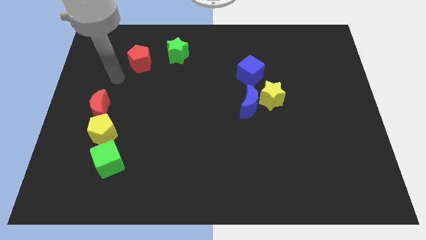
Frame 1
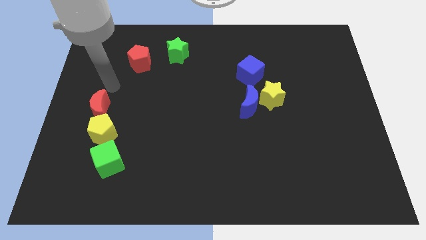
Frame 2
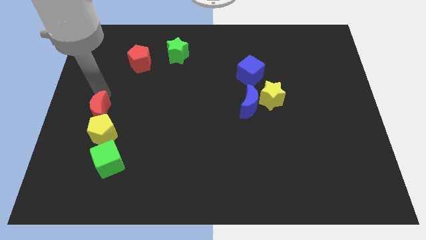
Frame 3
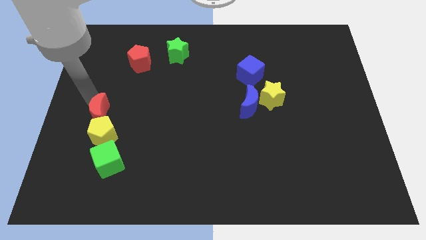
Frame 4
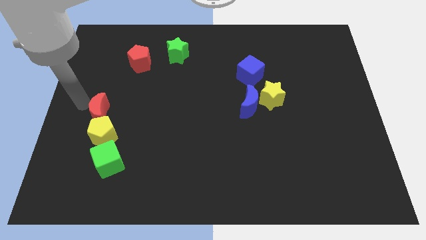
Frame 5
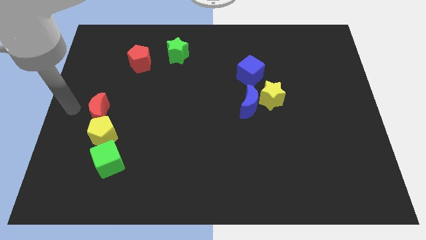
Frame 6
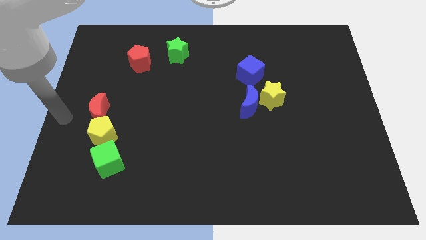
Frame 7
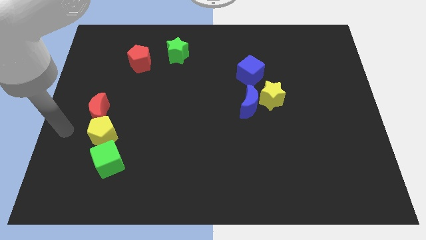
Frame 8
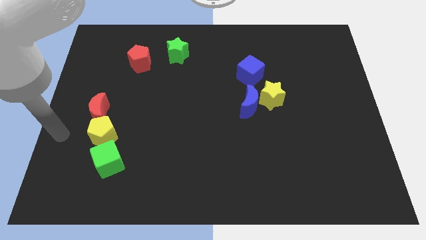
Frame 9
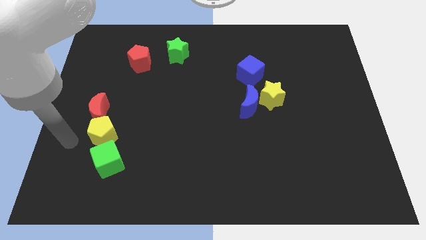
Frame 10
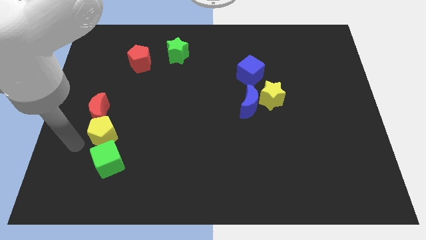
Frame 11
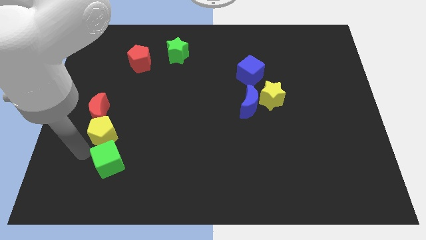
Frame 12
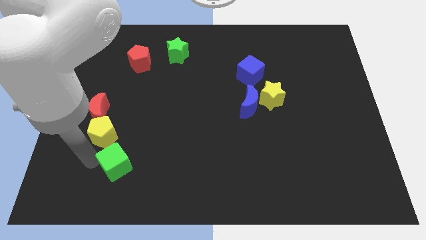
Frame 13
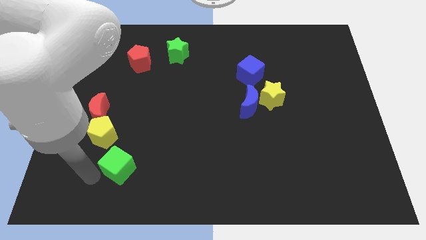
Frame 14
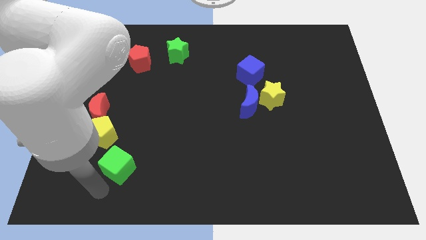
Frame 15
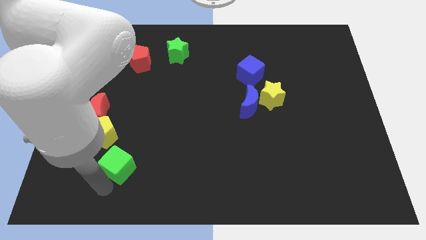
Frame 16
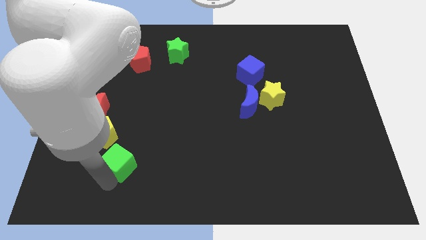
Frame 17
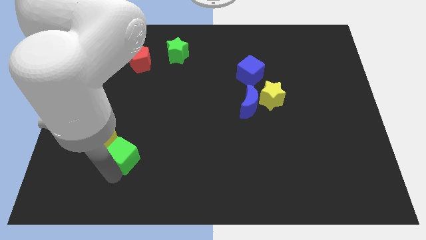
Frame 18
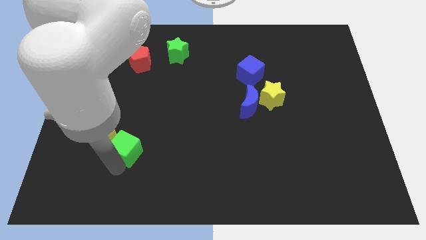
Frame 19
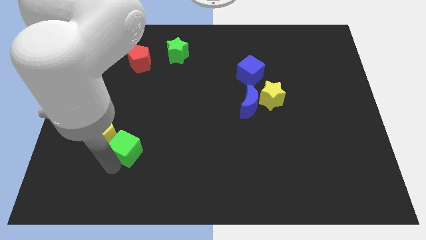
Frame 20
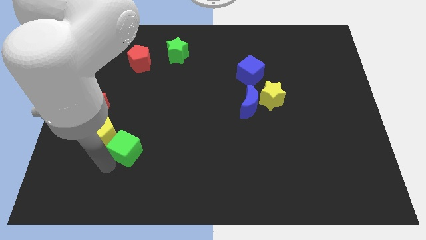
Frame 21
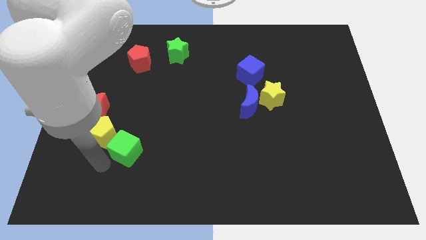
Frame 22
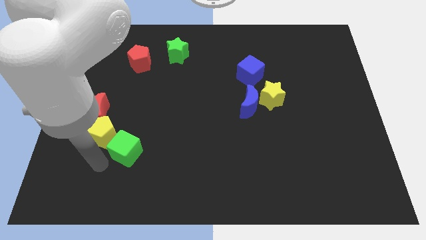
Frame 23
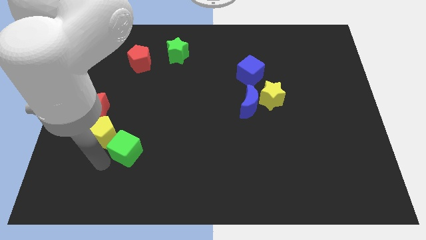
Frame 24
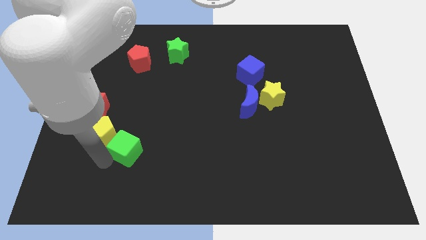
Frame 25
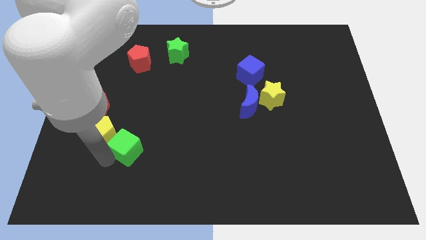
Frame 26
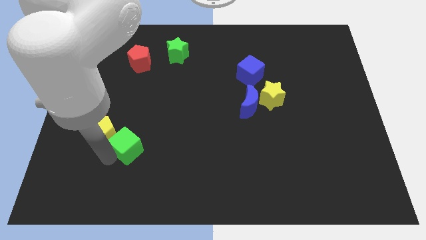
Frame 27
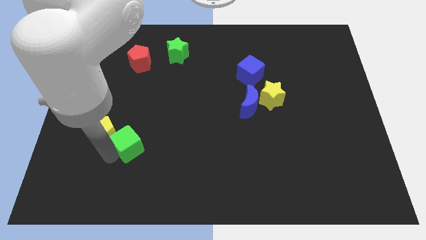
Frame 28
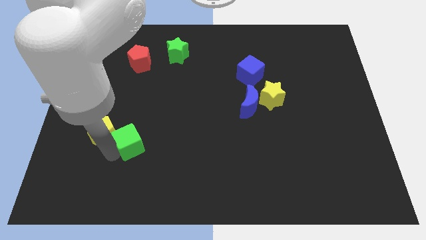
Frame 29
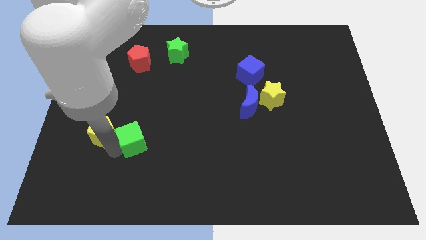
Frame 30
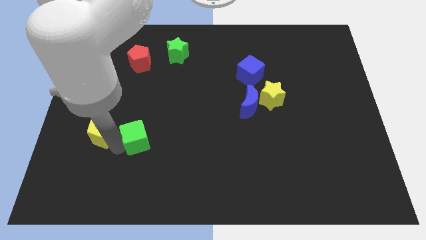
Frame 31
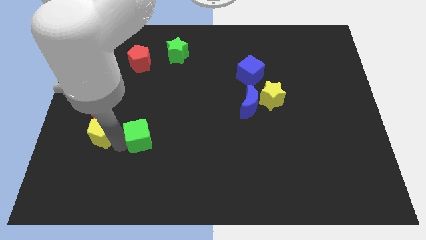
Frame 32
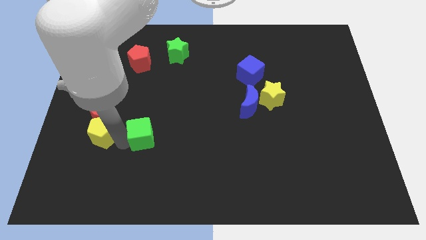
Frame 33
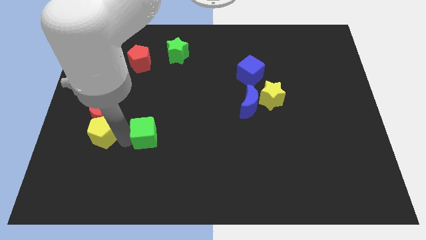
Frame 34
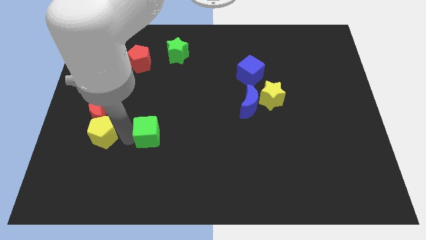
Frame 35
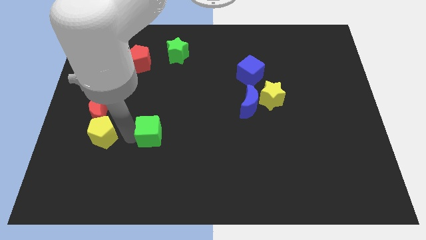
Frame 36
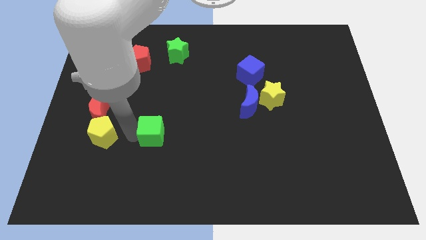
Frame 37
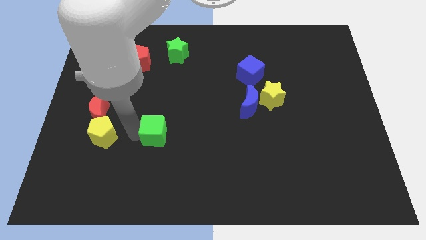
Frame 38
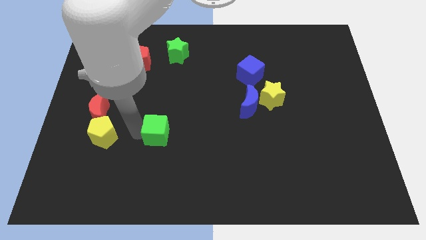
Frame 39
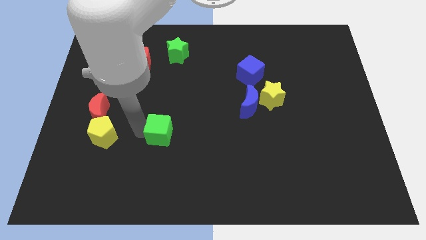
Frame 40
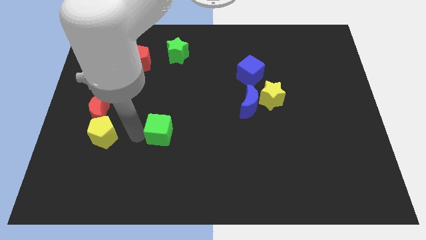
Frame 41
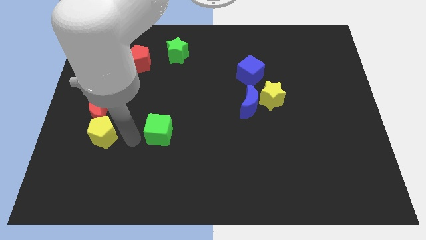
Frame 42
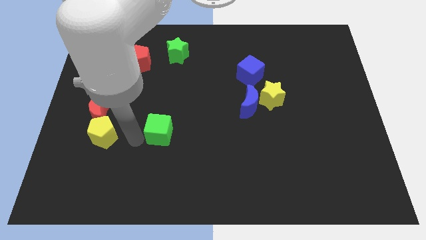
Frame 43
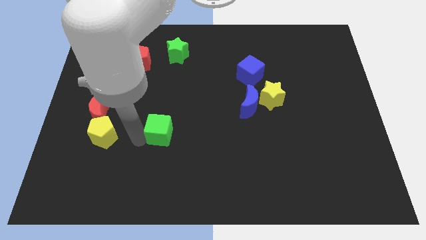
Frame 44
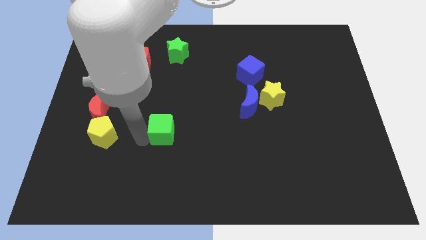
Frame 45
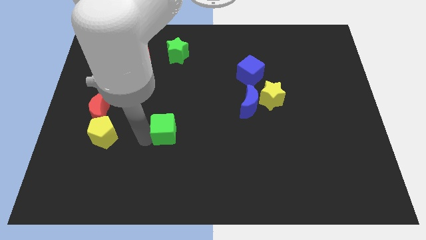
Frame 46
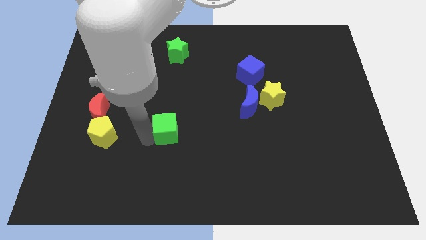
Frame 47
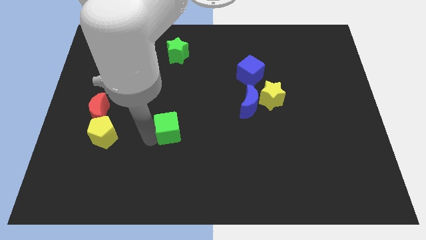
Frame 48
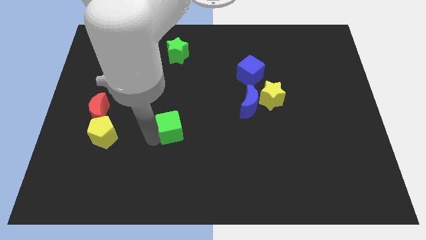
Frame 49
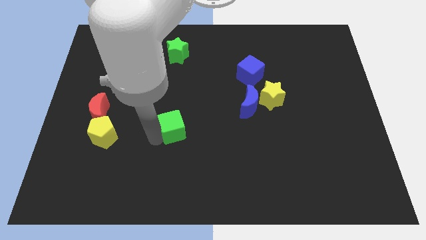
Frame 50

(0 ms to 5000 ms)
push the green cube to the center

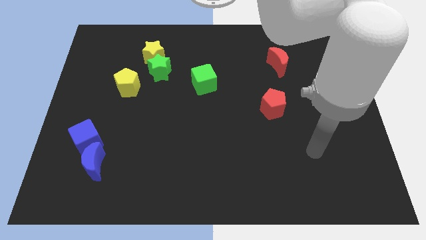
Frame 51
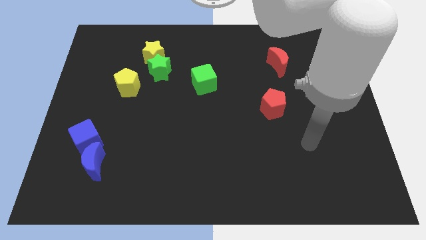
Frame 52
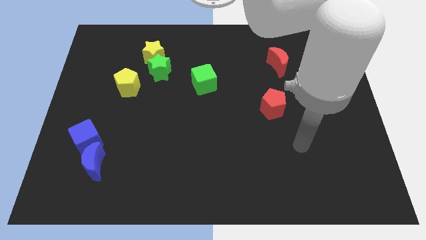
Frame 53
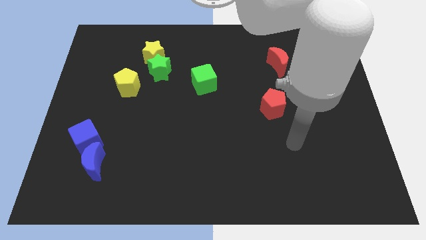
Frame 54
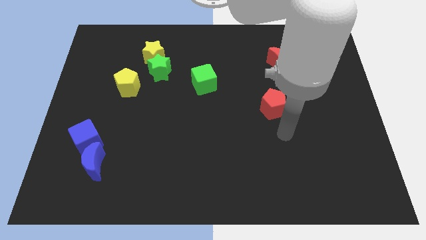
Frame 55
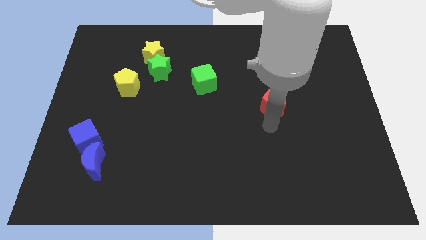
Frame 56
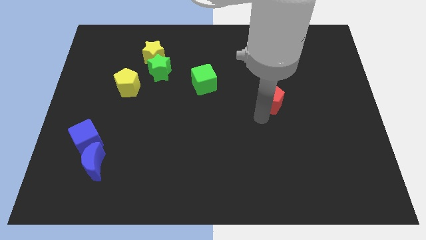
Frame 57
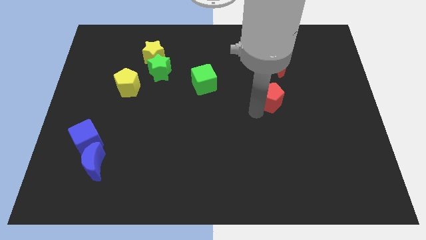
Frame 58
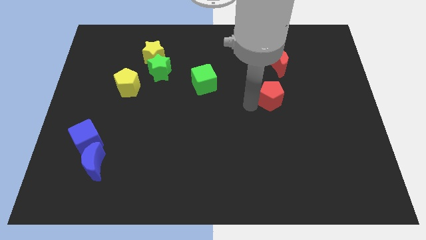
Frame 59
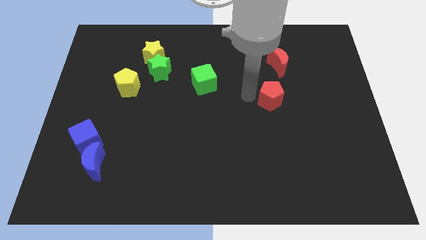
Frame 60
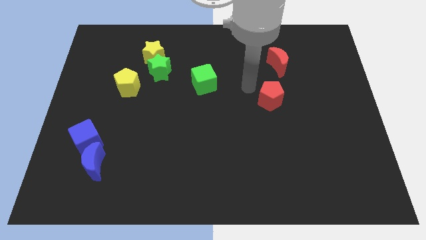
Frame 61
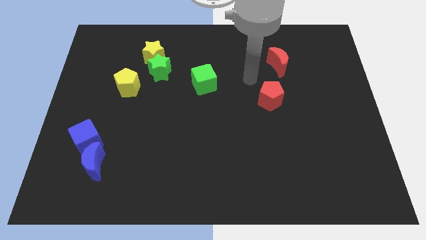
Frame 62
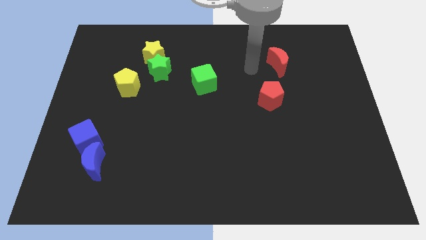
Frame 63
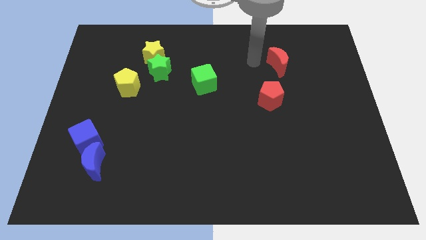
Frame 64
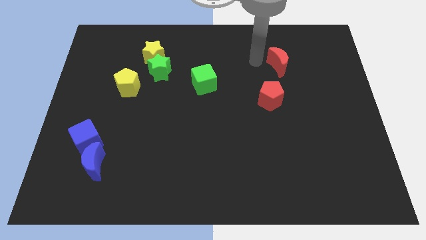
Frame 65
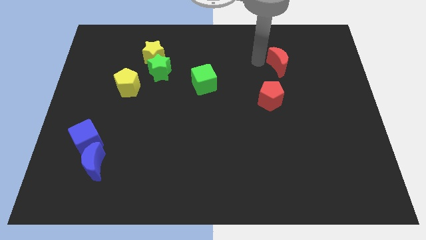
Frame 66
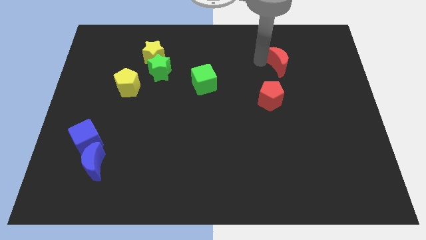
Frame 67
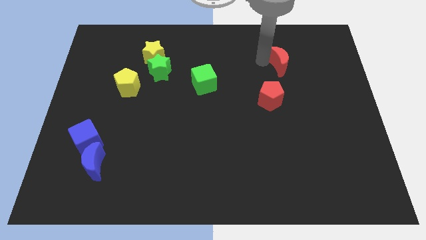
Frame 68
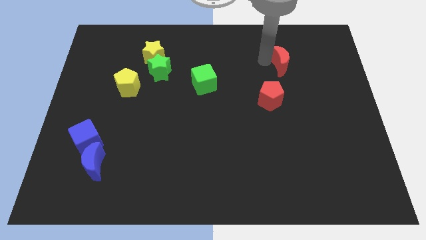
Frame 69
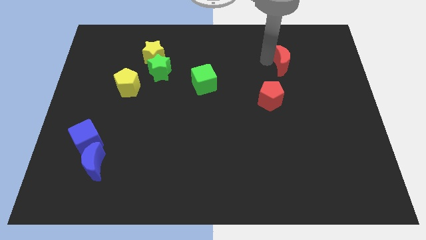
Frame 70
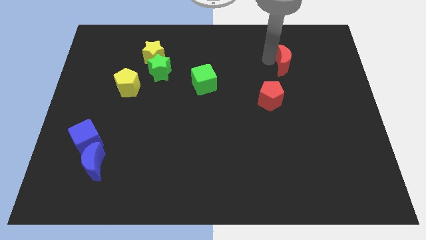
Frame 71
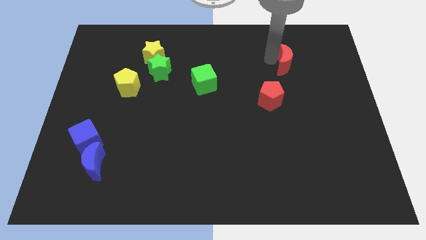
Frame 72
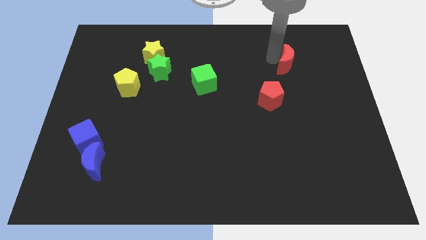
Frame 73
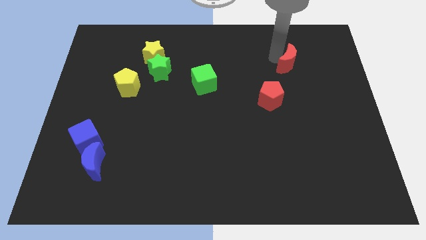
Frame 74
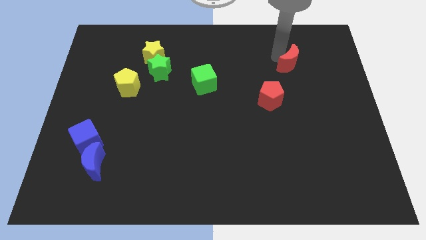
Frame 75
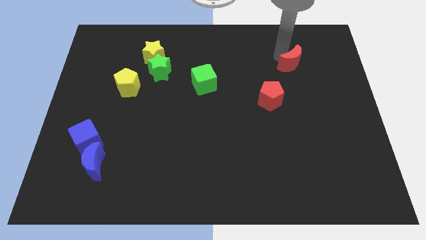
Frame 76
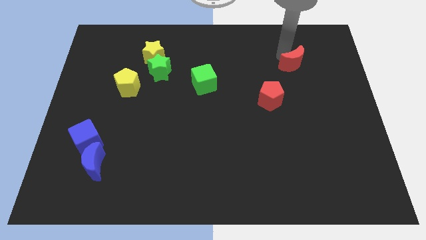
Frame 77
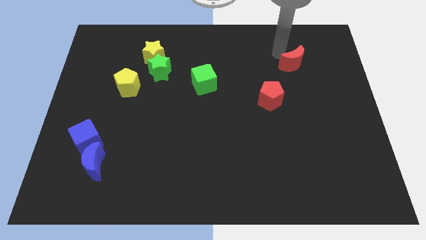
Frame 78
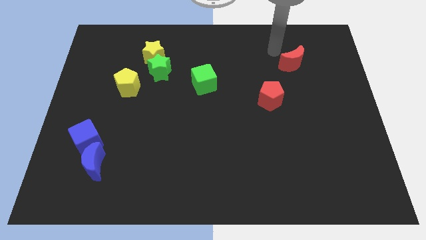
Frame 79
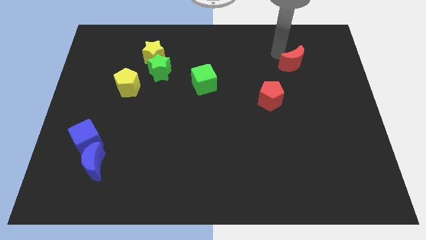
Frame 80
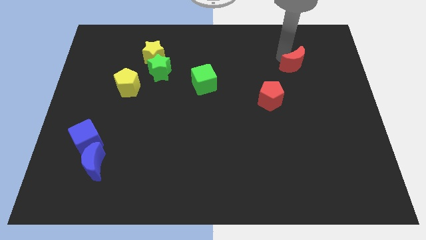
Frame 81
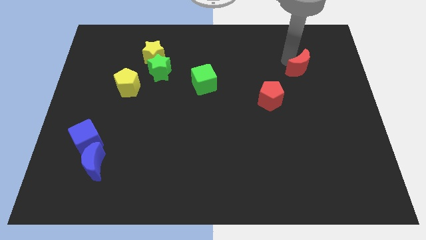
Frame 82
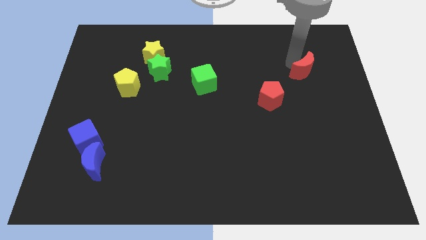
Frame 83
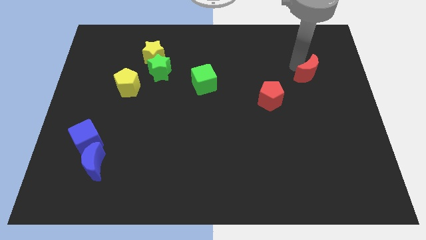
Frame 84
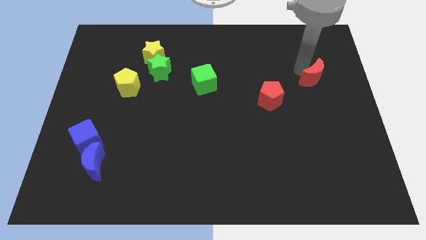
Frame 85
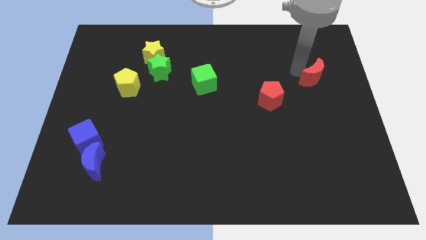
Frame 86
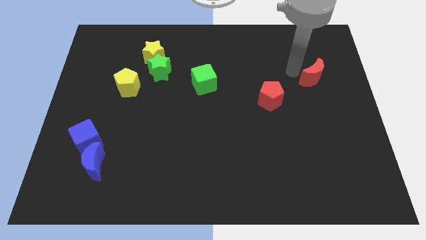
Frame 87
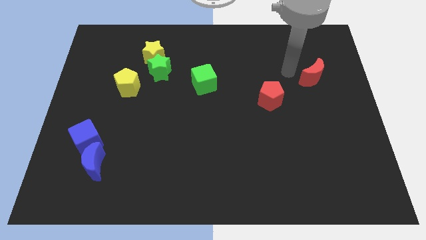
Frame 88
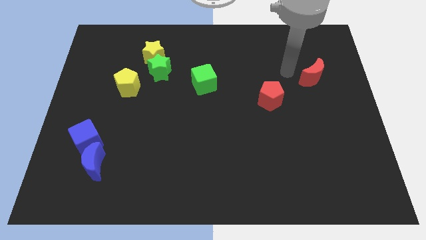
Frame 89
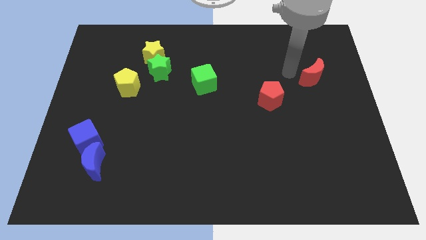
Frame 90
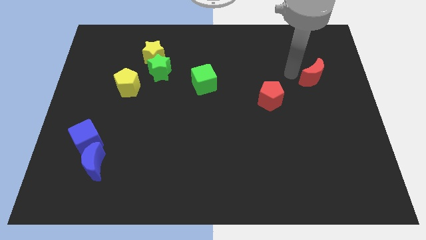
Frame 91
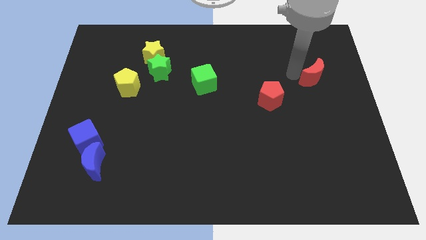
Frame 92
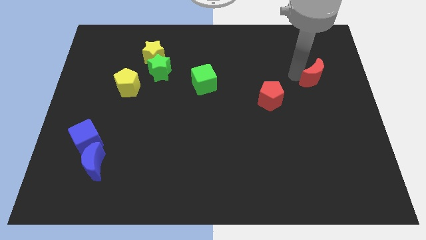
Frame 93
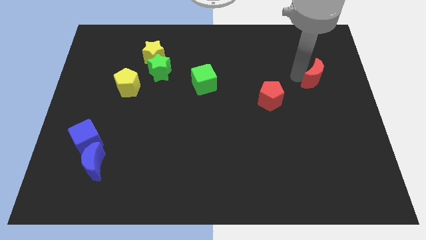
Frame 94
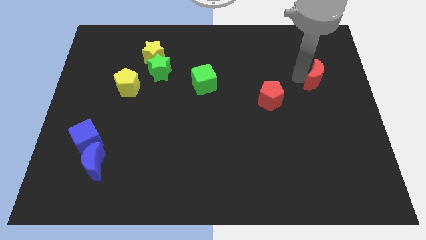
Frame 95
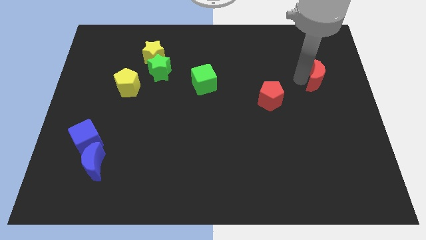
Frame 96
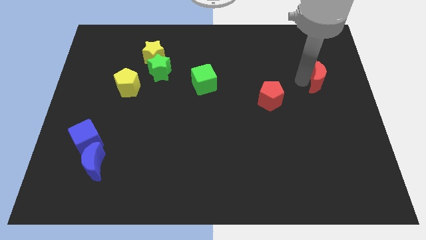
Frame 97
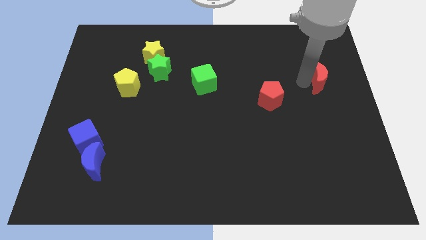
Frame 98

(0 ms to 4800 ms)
put the red moon to the right side of the board
